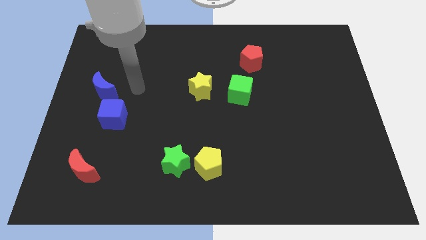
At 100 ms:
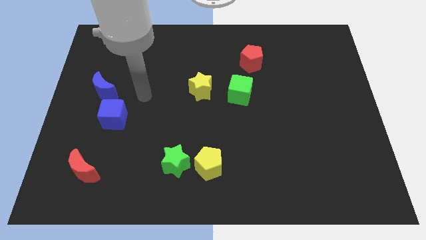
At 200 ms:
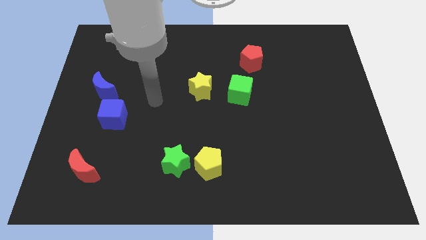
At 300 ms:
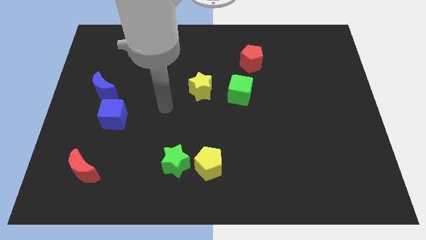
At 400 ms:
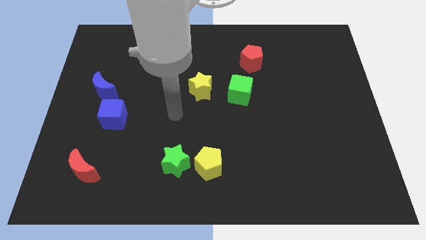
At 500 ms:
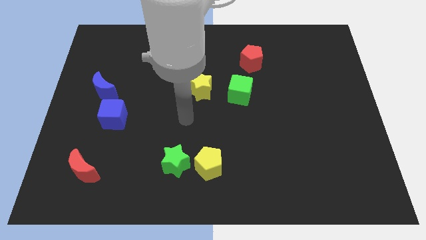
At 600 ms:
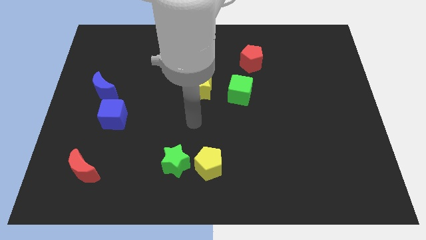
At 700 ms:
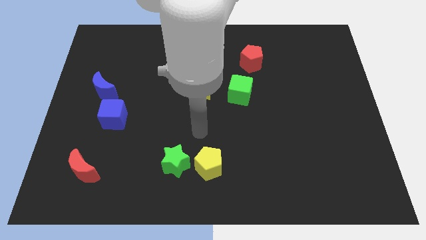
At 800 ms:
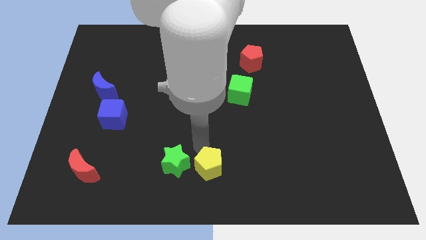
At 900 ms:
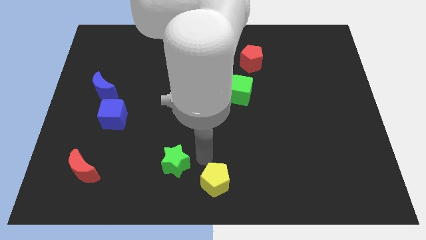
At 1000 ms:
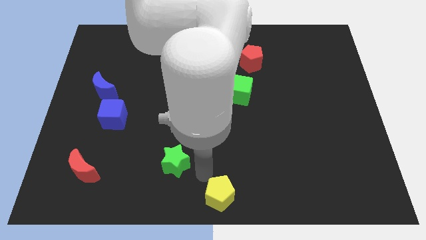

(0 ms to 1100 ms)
separate the green star from the yellow pentagon

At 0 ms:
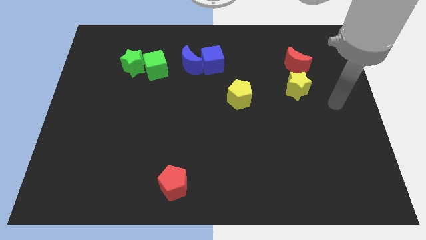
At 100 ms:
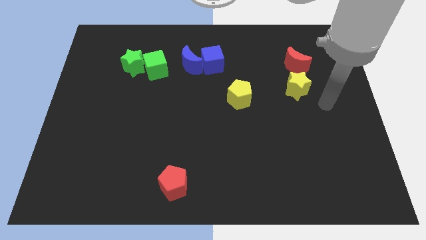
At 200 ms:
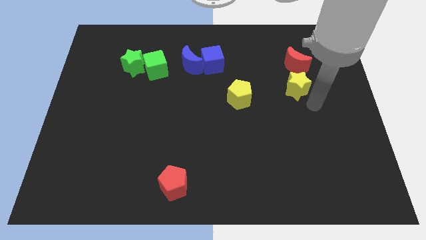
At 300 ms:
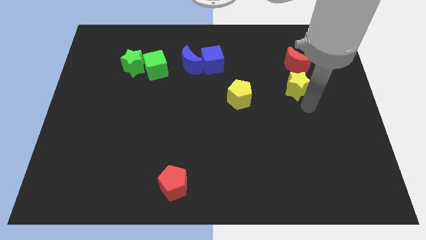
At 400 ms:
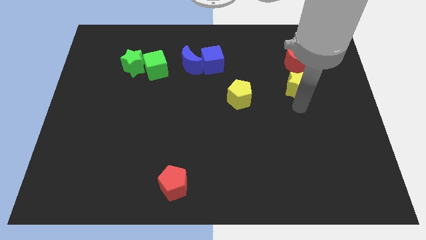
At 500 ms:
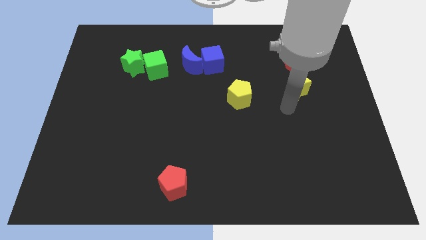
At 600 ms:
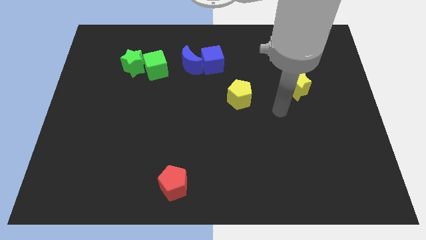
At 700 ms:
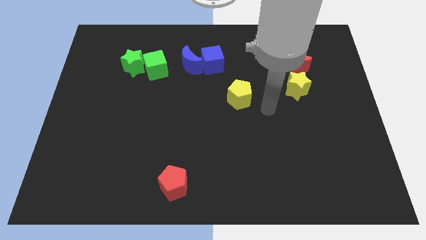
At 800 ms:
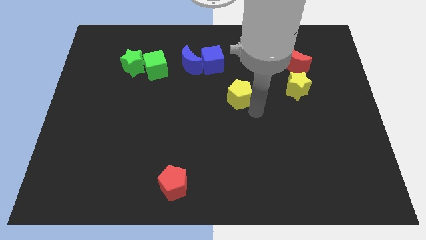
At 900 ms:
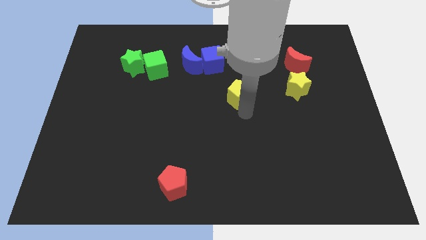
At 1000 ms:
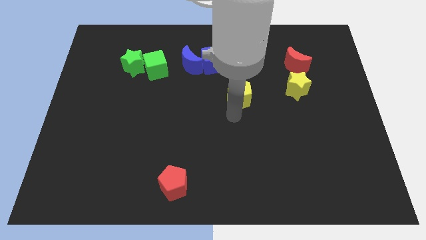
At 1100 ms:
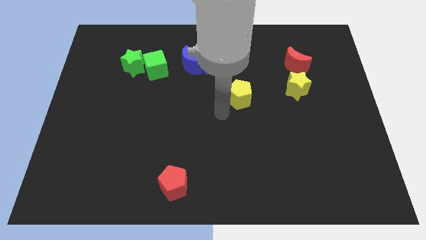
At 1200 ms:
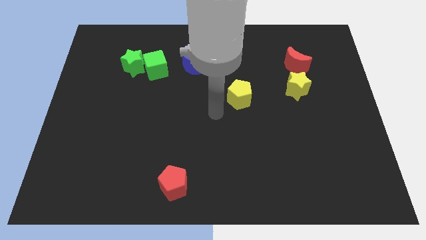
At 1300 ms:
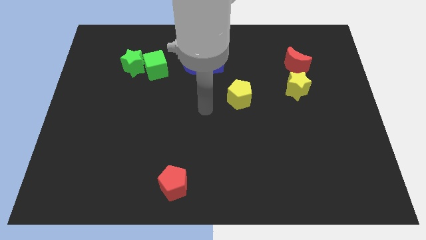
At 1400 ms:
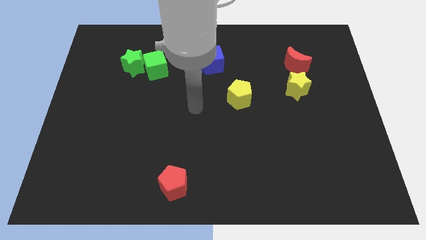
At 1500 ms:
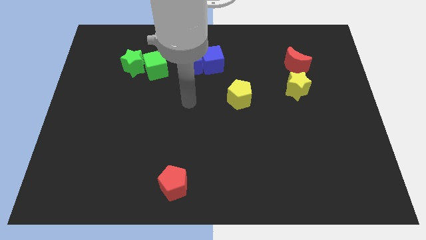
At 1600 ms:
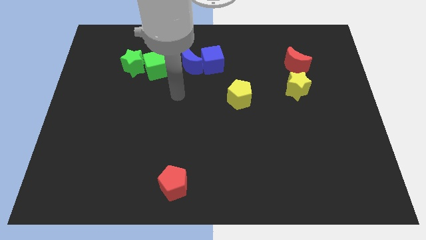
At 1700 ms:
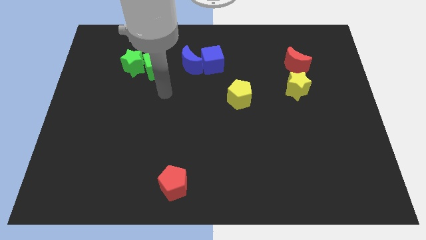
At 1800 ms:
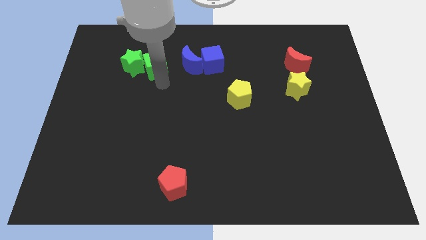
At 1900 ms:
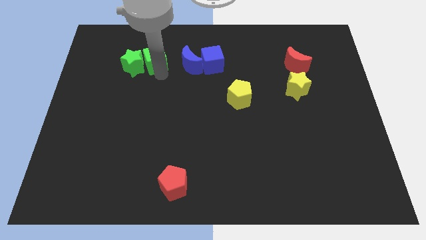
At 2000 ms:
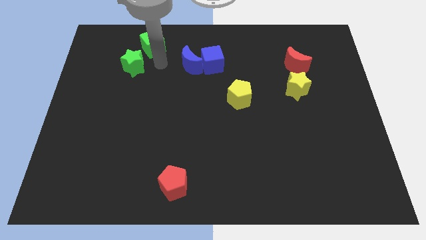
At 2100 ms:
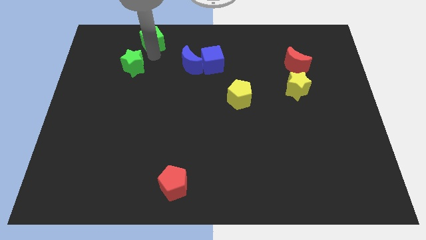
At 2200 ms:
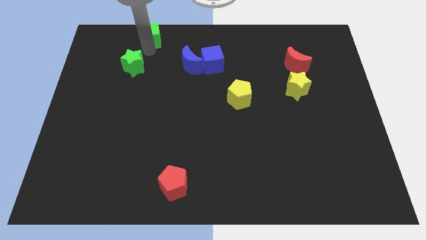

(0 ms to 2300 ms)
move the green star away from the green cube

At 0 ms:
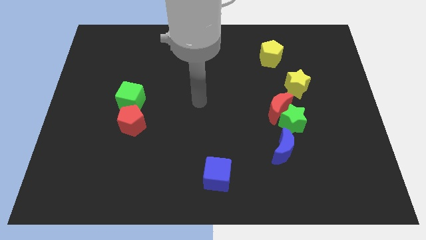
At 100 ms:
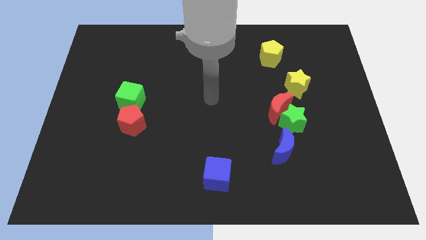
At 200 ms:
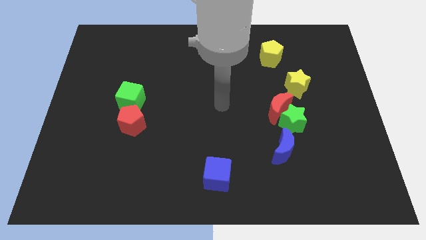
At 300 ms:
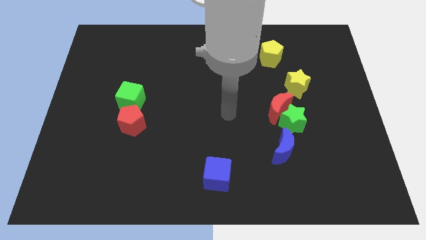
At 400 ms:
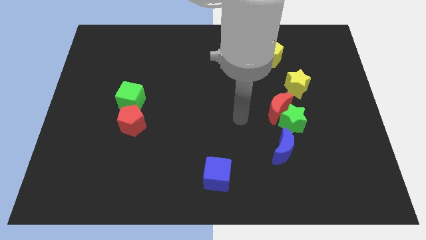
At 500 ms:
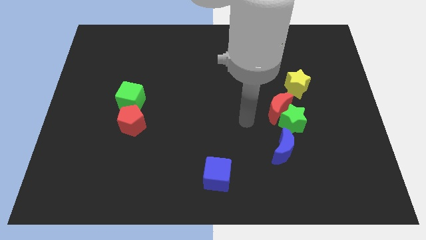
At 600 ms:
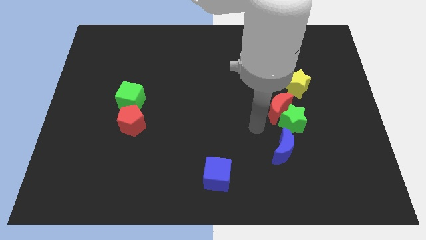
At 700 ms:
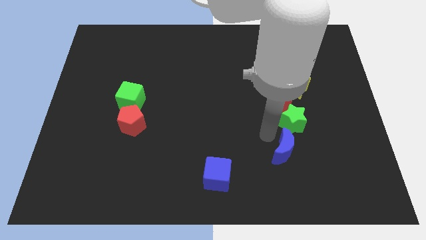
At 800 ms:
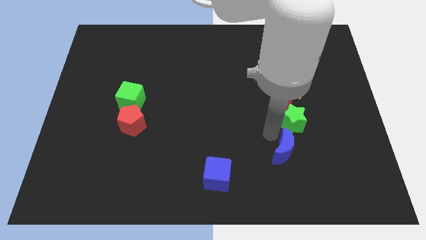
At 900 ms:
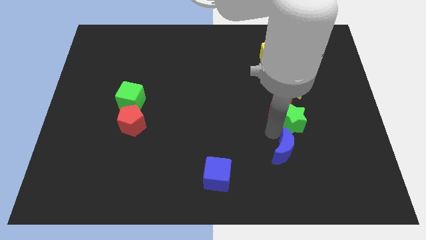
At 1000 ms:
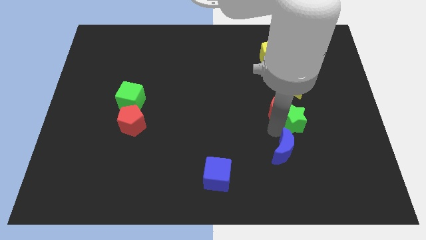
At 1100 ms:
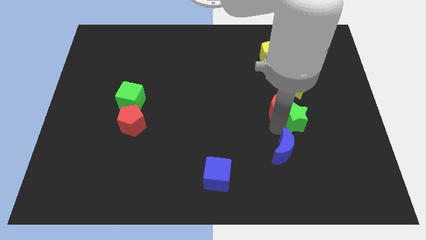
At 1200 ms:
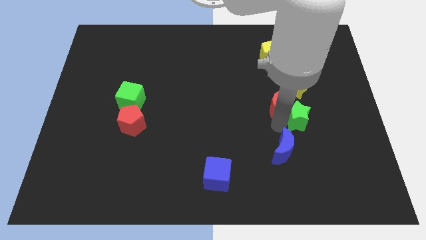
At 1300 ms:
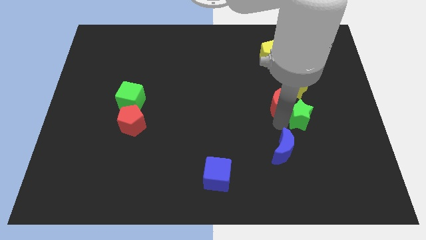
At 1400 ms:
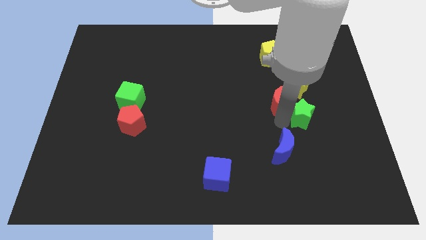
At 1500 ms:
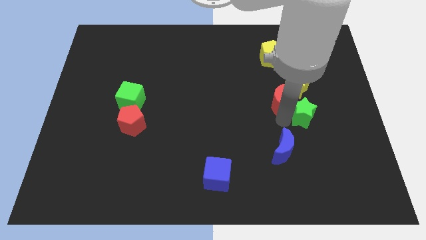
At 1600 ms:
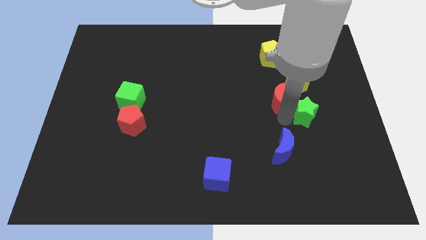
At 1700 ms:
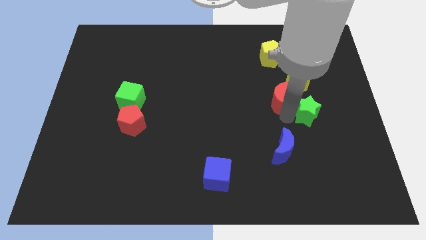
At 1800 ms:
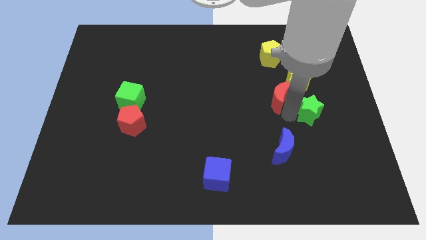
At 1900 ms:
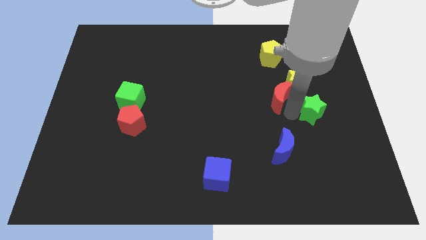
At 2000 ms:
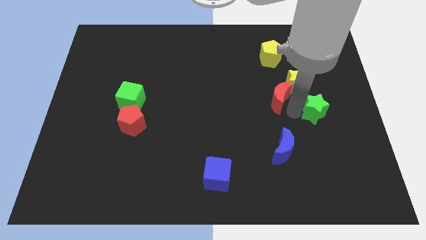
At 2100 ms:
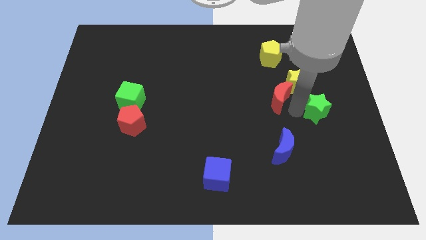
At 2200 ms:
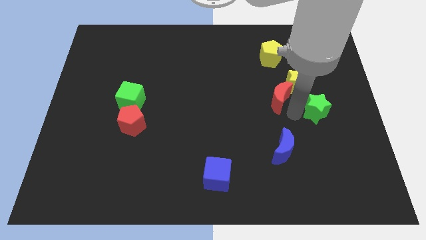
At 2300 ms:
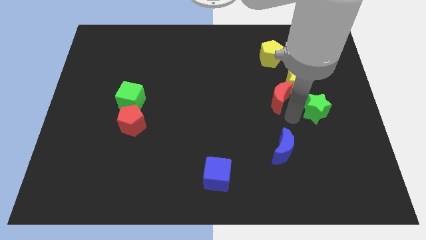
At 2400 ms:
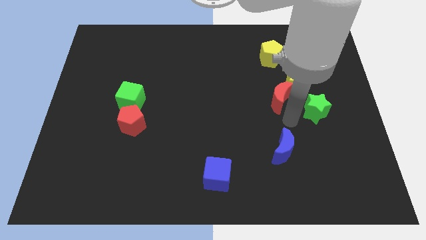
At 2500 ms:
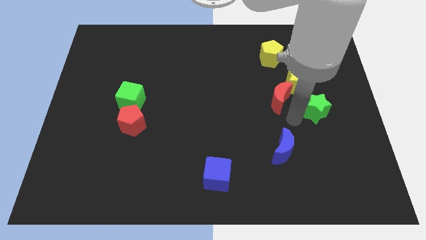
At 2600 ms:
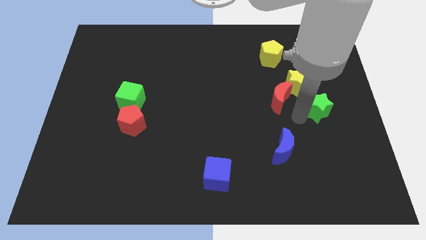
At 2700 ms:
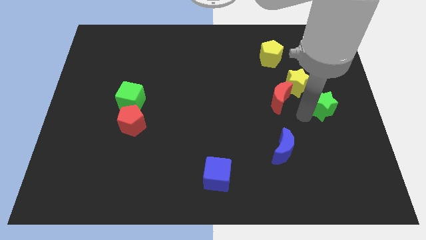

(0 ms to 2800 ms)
move the green star away from the red moon and blue moon

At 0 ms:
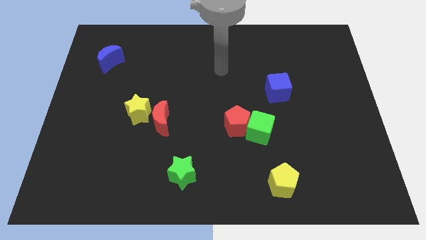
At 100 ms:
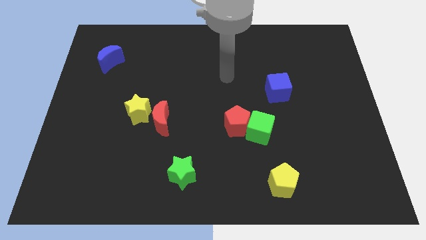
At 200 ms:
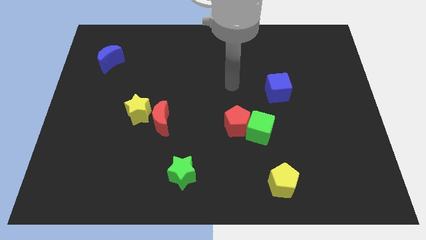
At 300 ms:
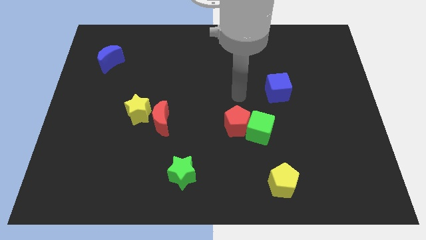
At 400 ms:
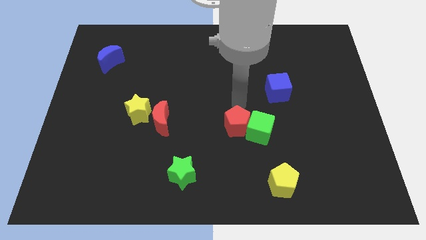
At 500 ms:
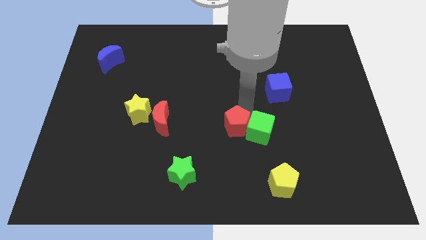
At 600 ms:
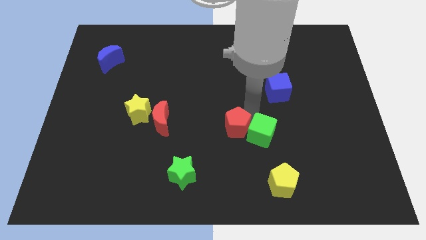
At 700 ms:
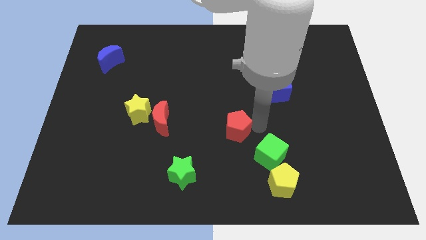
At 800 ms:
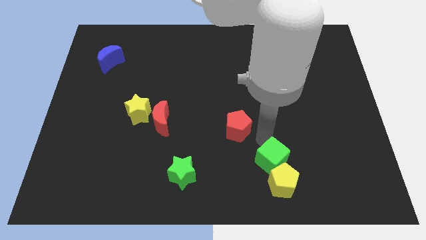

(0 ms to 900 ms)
pull the red pentagon apart from the green cube

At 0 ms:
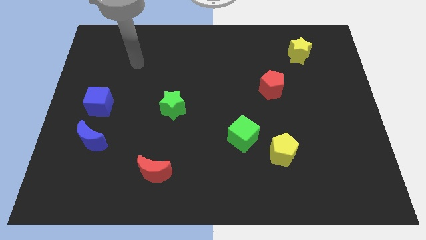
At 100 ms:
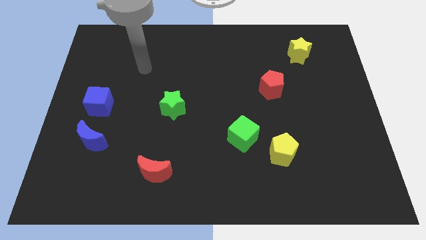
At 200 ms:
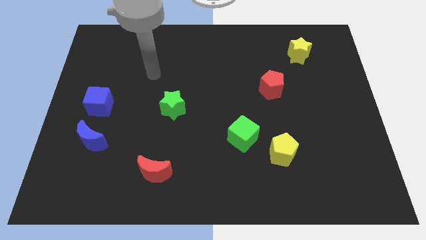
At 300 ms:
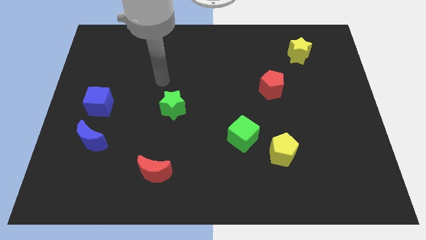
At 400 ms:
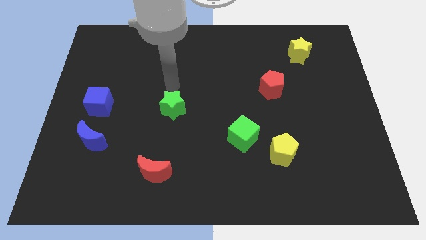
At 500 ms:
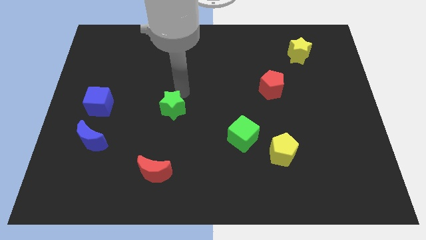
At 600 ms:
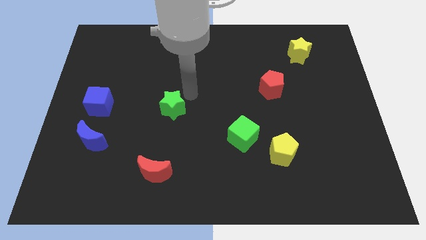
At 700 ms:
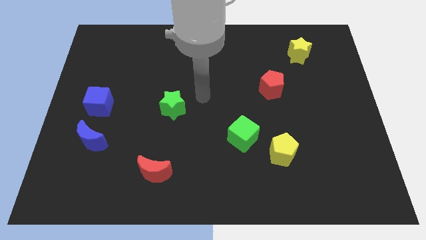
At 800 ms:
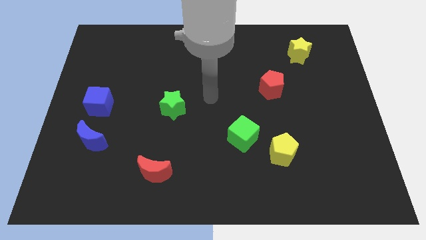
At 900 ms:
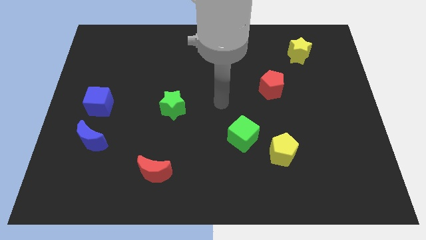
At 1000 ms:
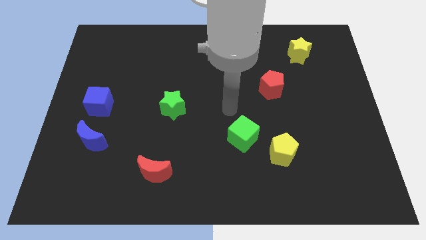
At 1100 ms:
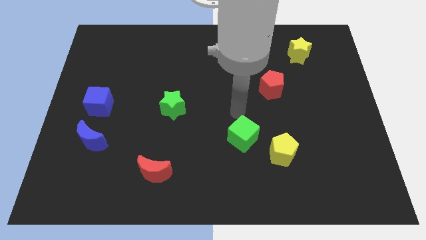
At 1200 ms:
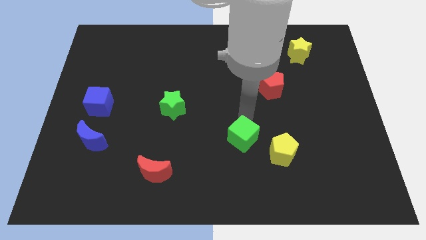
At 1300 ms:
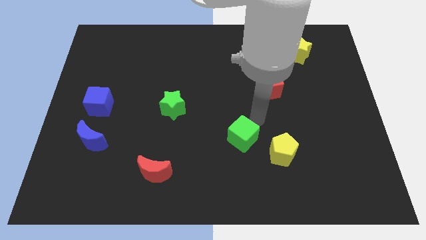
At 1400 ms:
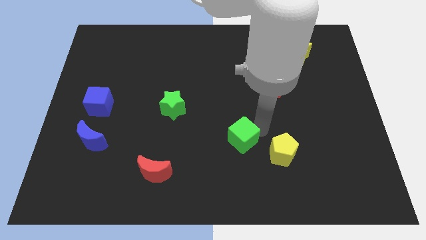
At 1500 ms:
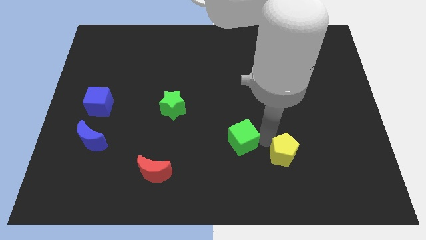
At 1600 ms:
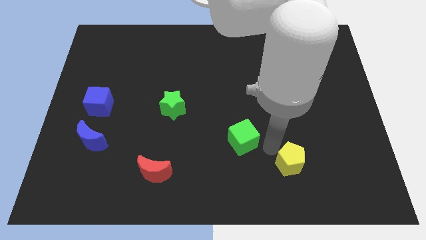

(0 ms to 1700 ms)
move the green cube away from the yellow pentagon

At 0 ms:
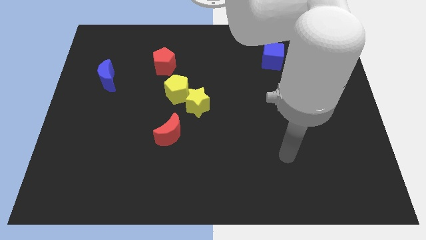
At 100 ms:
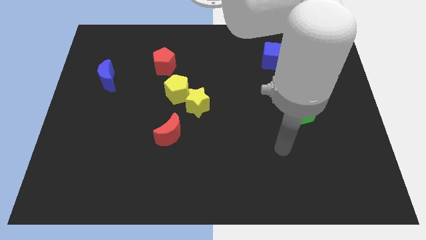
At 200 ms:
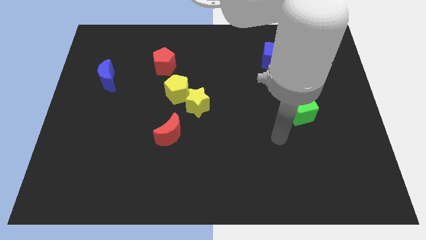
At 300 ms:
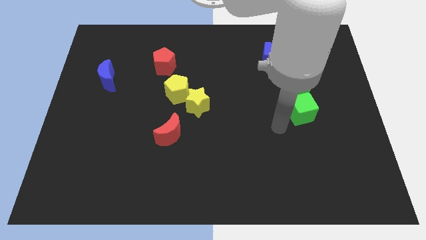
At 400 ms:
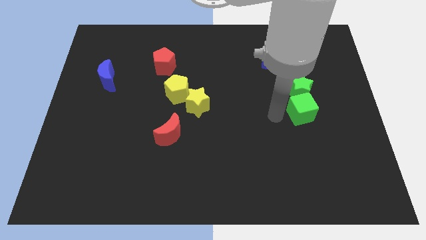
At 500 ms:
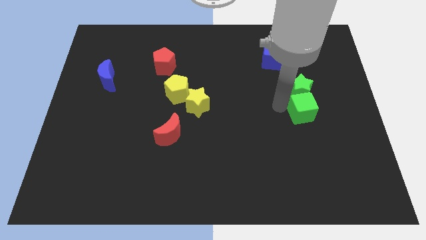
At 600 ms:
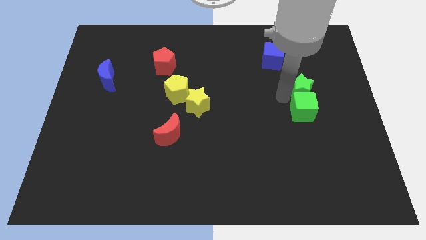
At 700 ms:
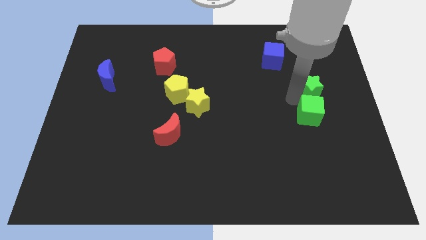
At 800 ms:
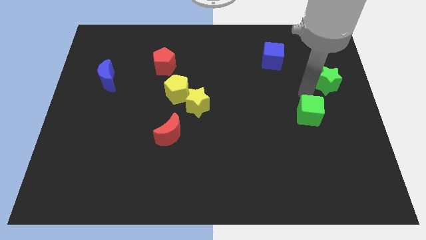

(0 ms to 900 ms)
separate the green cube from the green star
